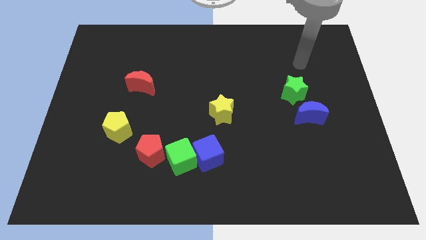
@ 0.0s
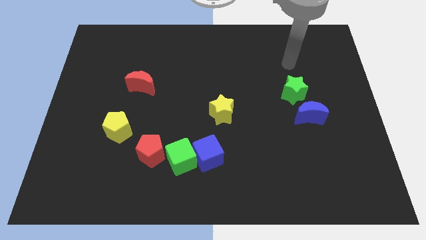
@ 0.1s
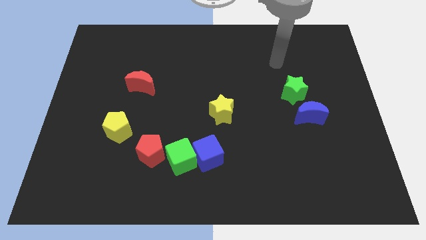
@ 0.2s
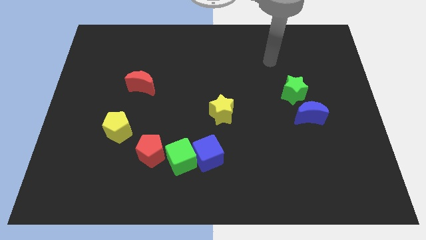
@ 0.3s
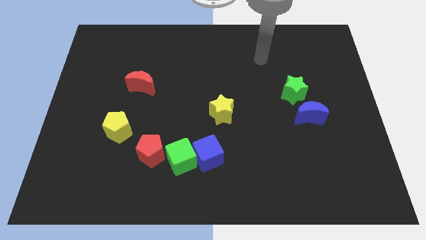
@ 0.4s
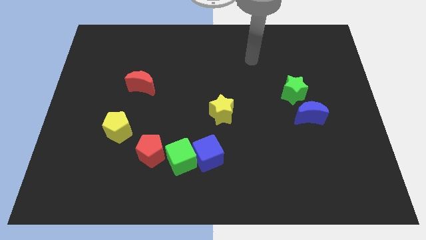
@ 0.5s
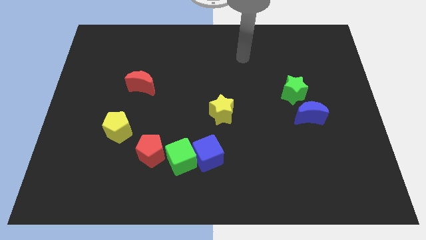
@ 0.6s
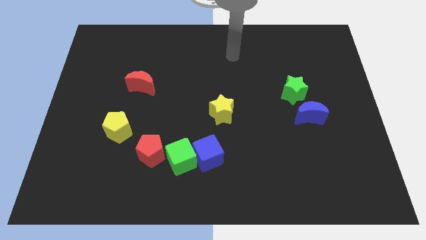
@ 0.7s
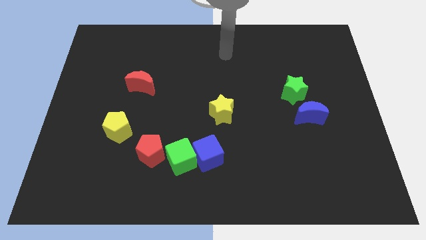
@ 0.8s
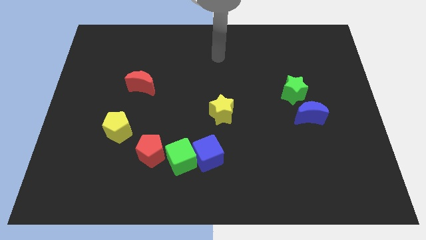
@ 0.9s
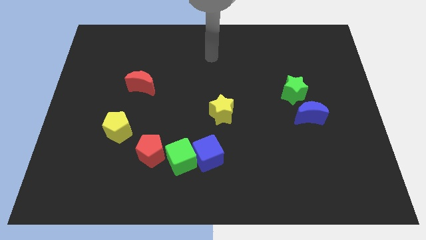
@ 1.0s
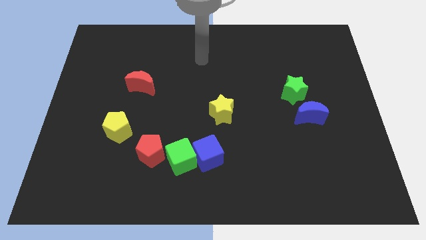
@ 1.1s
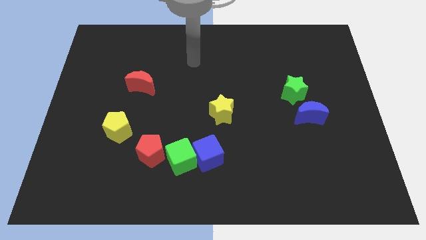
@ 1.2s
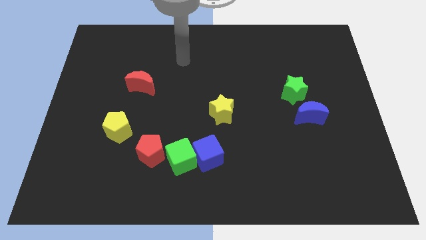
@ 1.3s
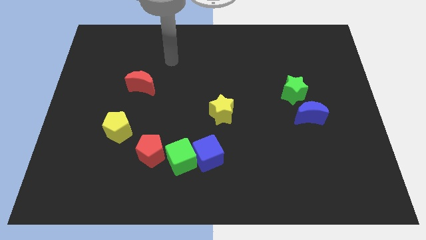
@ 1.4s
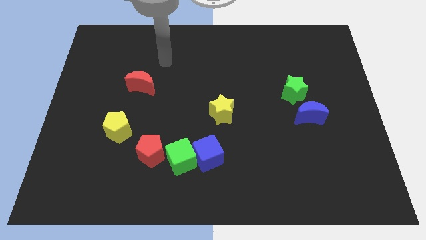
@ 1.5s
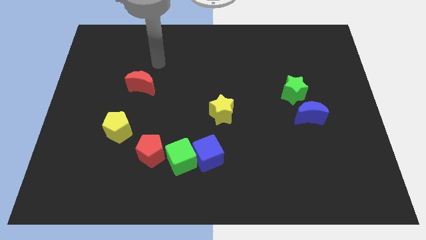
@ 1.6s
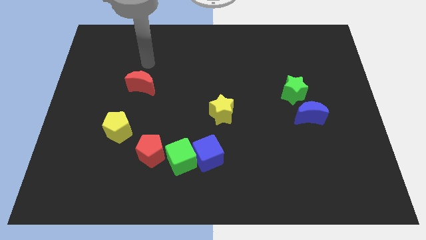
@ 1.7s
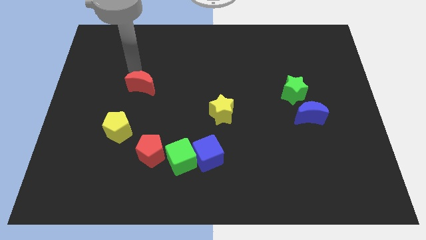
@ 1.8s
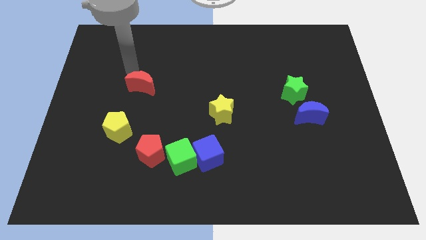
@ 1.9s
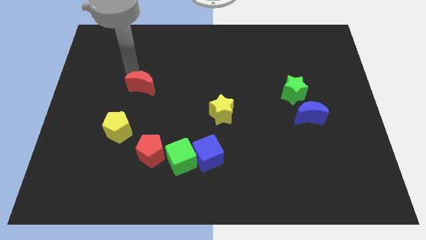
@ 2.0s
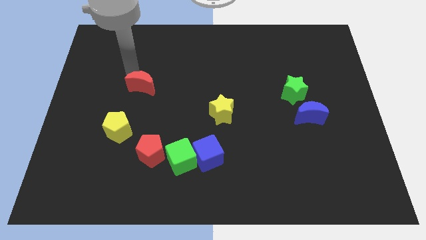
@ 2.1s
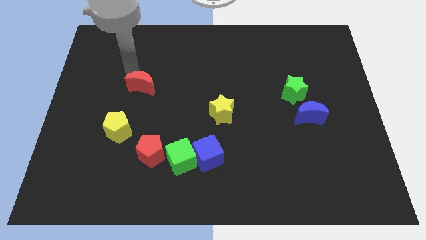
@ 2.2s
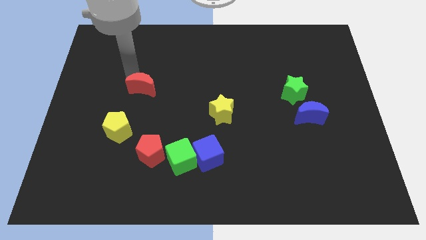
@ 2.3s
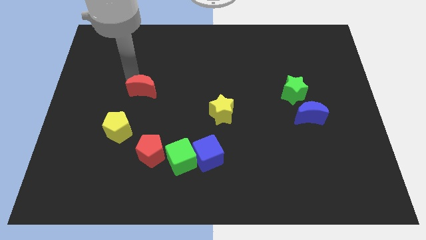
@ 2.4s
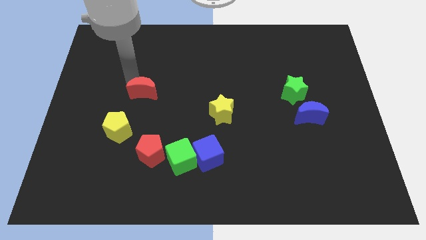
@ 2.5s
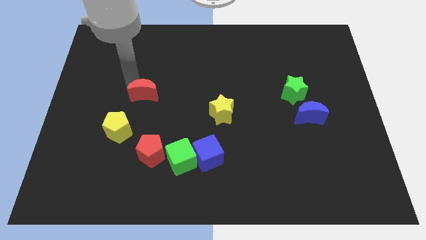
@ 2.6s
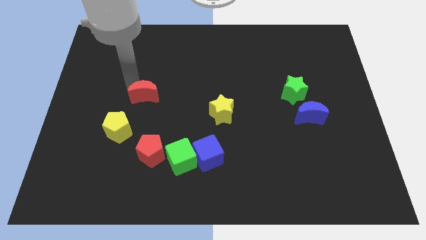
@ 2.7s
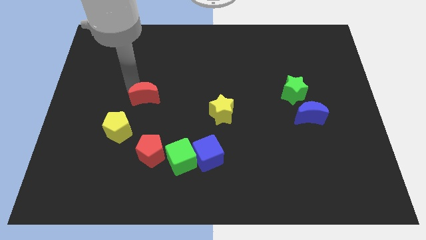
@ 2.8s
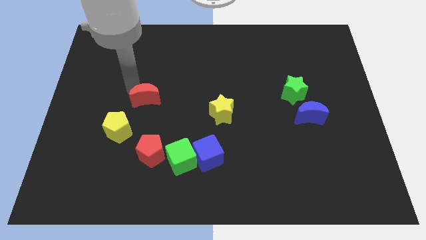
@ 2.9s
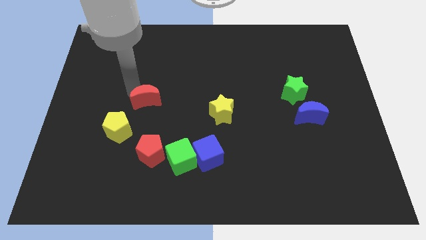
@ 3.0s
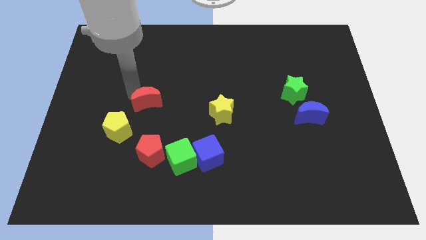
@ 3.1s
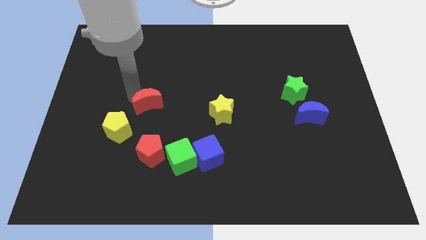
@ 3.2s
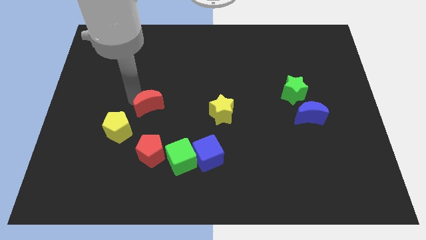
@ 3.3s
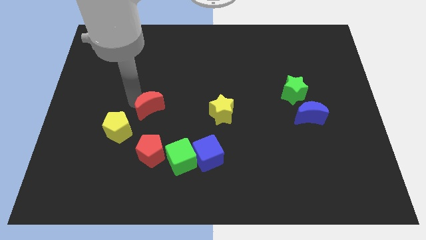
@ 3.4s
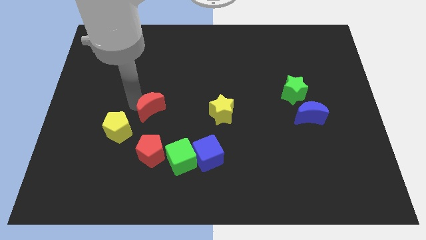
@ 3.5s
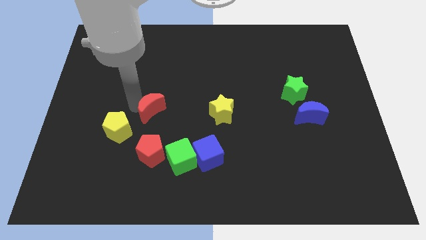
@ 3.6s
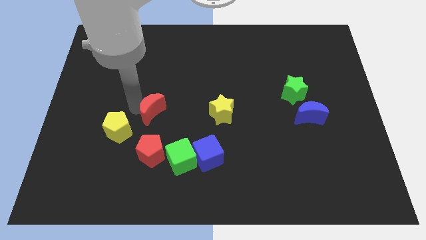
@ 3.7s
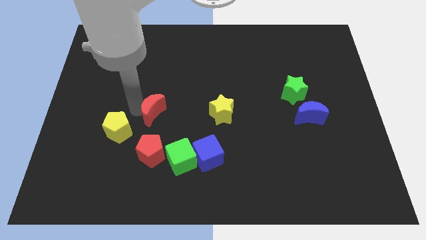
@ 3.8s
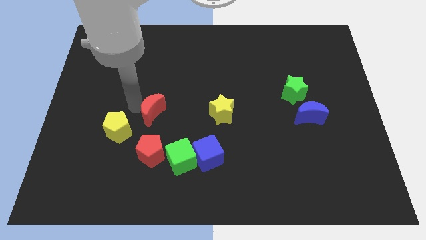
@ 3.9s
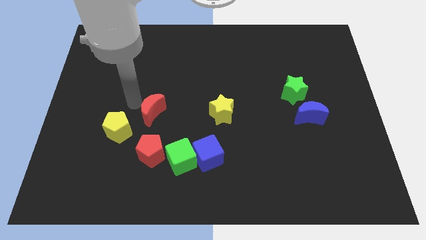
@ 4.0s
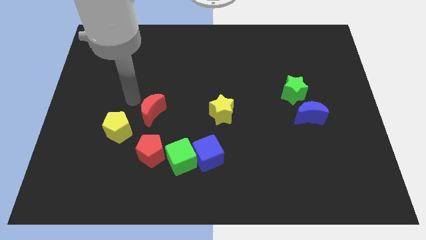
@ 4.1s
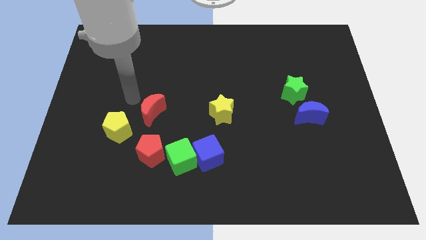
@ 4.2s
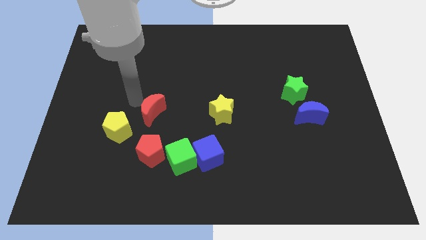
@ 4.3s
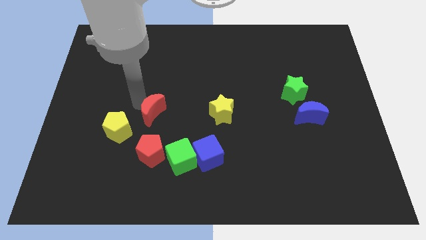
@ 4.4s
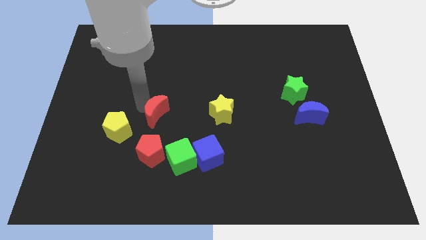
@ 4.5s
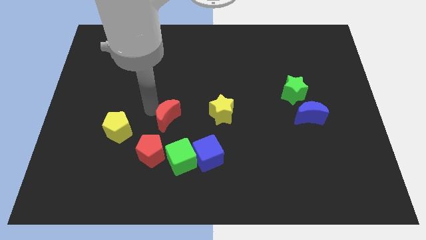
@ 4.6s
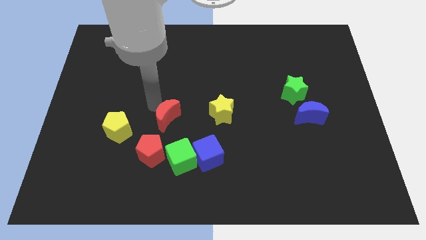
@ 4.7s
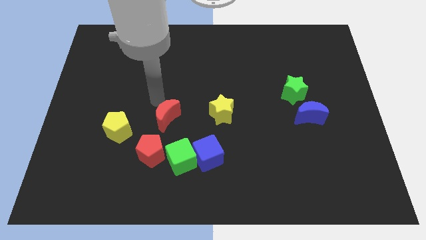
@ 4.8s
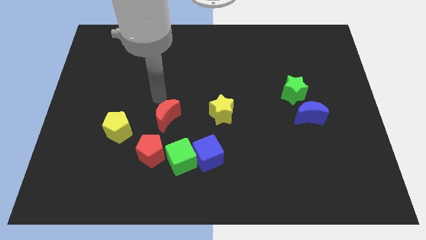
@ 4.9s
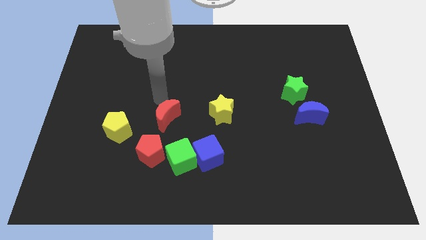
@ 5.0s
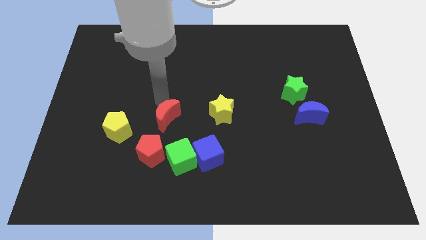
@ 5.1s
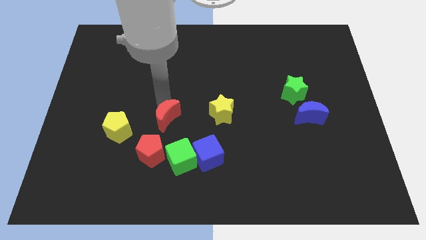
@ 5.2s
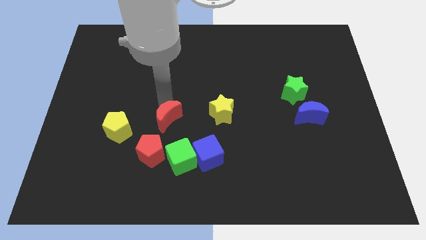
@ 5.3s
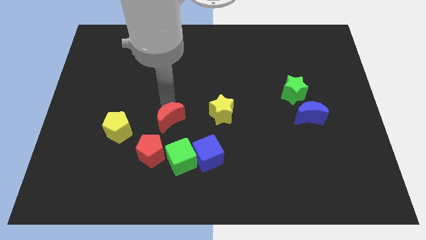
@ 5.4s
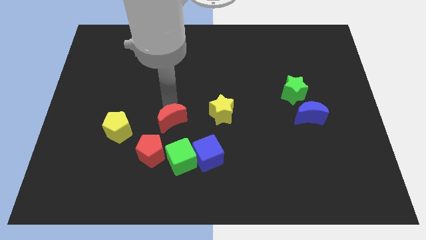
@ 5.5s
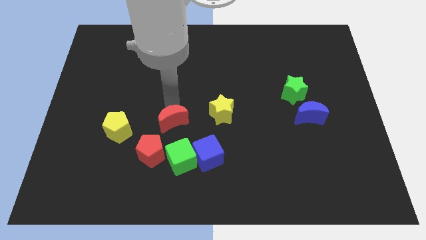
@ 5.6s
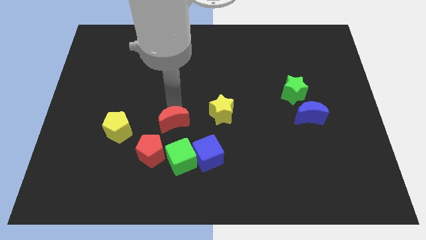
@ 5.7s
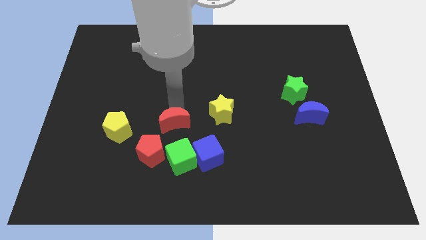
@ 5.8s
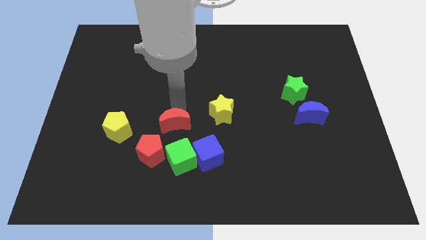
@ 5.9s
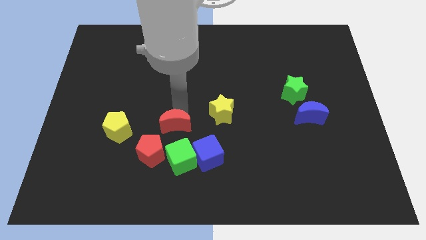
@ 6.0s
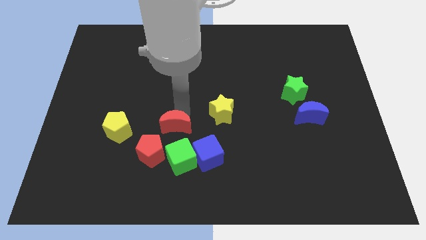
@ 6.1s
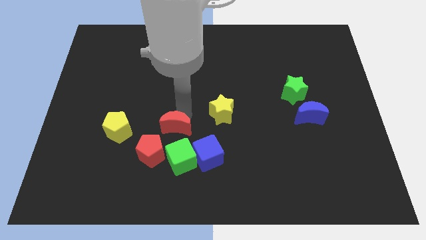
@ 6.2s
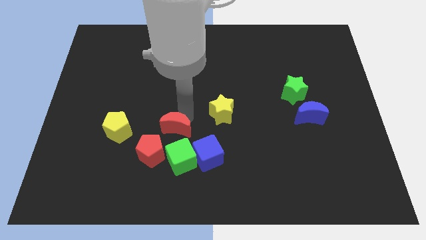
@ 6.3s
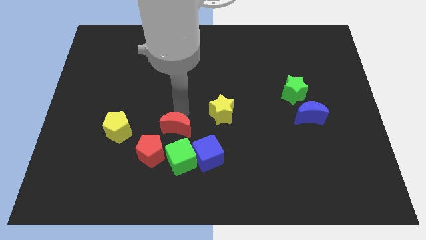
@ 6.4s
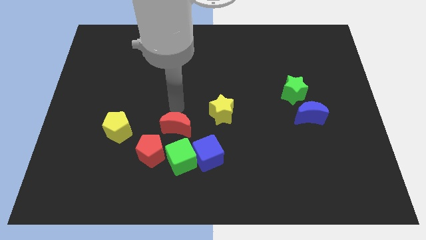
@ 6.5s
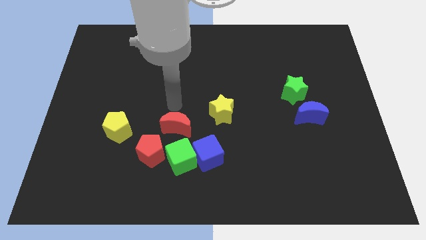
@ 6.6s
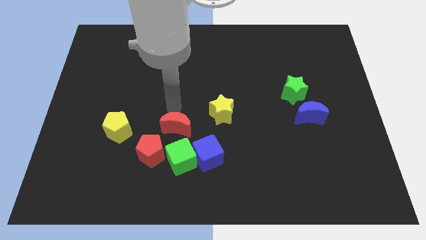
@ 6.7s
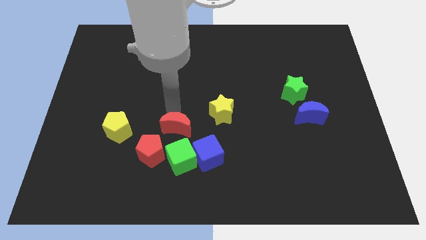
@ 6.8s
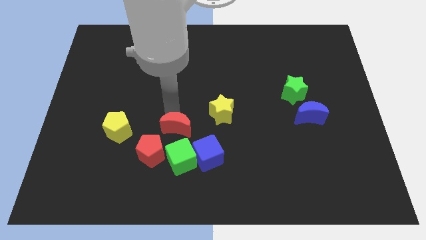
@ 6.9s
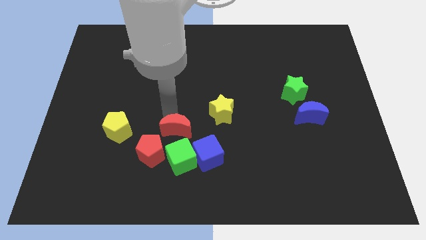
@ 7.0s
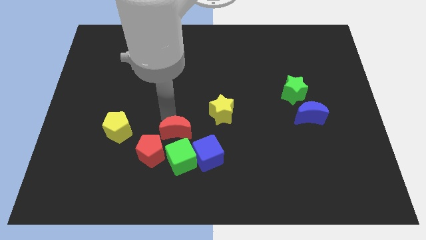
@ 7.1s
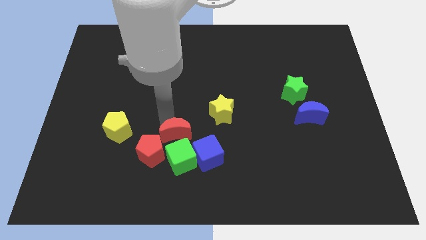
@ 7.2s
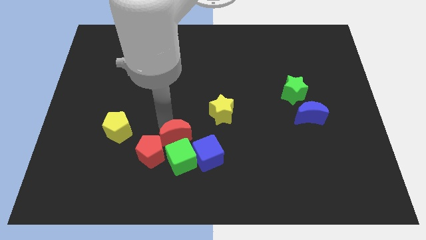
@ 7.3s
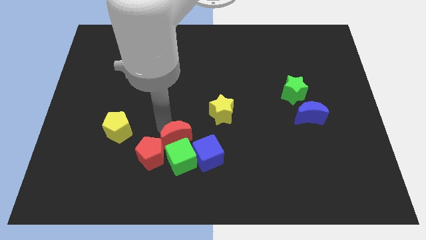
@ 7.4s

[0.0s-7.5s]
slide the red moon to the green cube

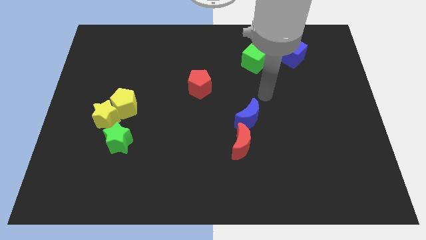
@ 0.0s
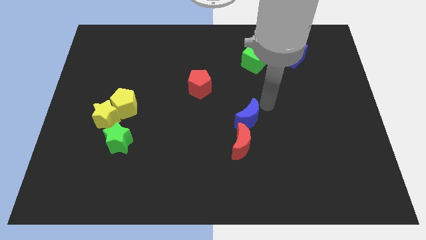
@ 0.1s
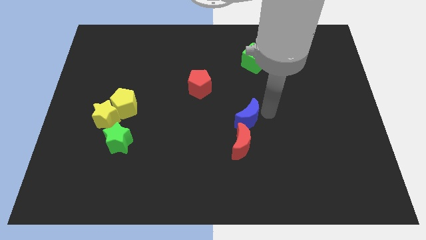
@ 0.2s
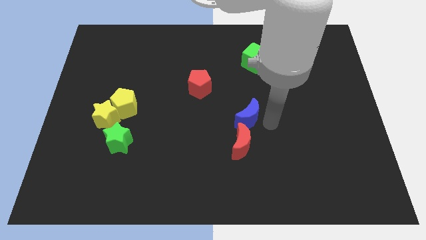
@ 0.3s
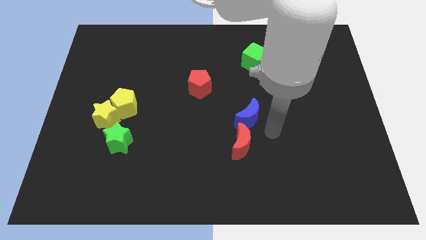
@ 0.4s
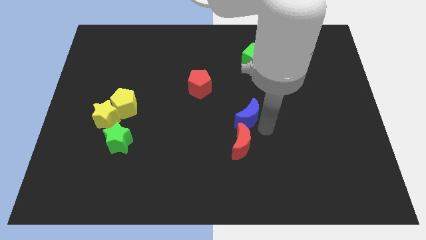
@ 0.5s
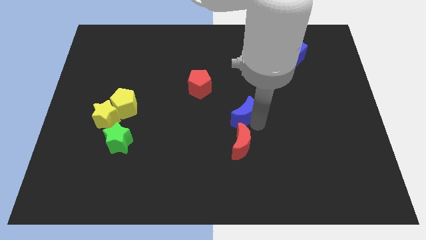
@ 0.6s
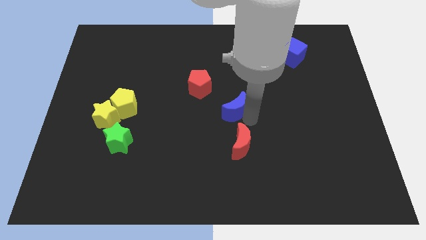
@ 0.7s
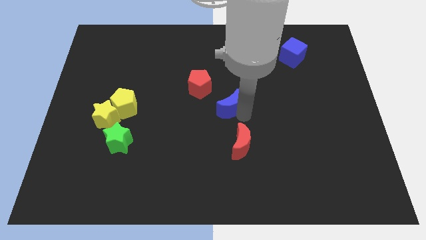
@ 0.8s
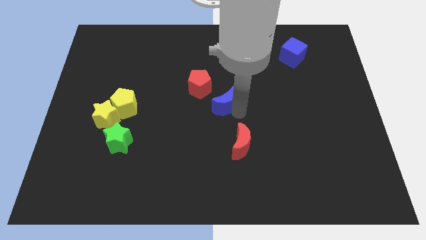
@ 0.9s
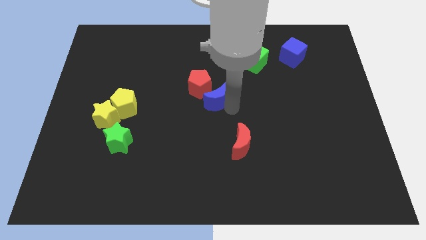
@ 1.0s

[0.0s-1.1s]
put the blue moon towards the red pentagon
